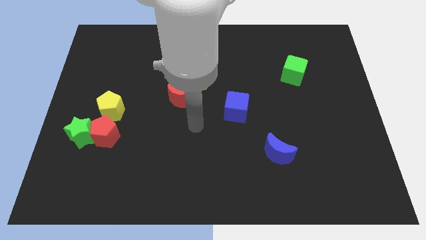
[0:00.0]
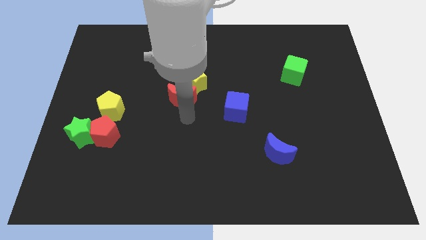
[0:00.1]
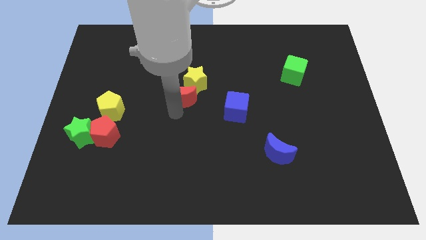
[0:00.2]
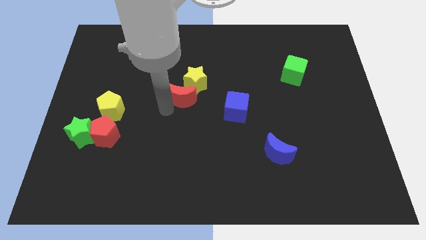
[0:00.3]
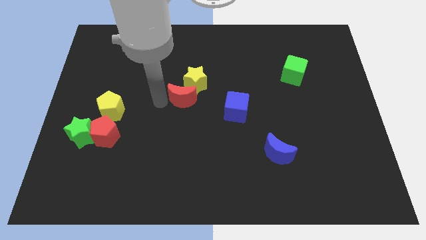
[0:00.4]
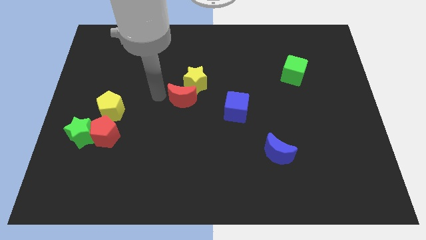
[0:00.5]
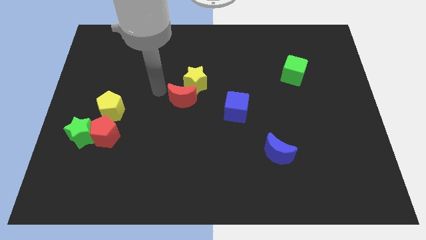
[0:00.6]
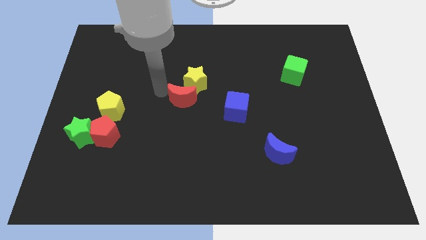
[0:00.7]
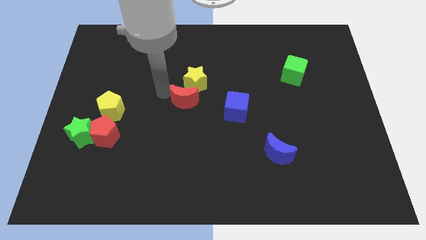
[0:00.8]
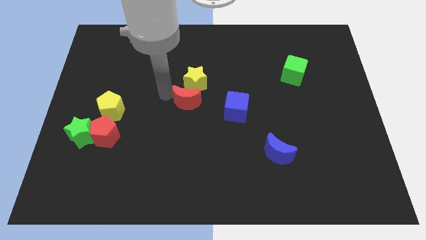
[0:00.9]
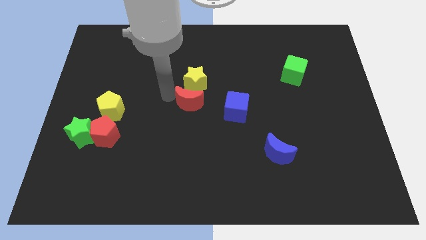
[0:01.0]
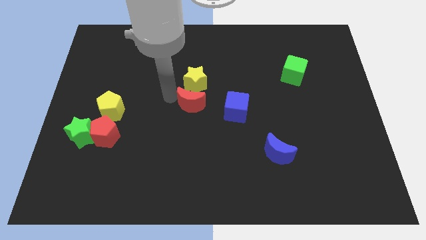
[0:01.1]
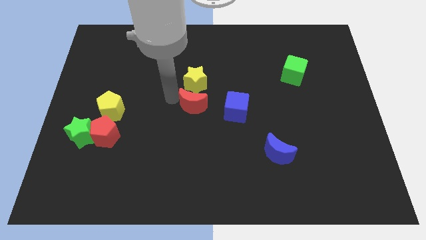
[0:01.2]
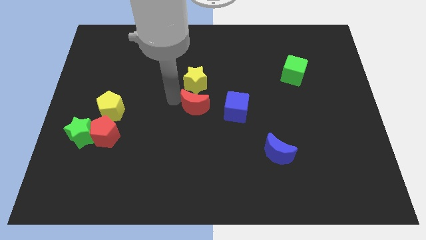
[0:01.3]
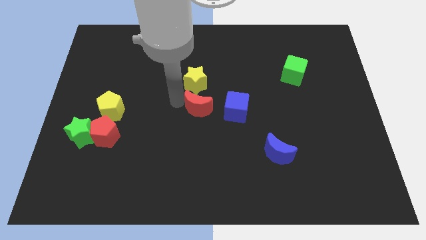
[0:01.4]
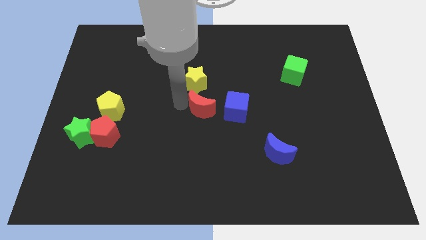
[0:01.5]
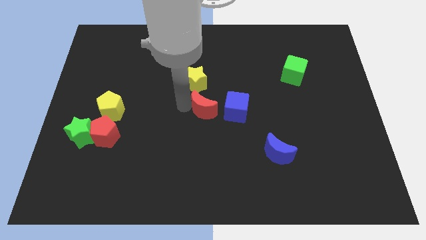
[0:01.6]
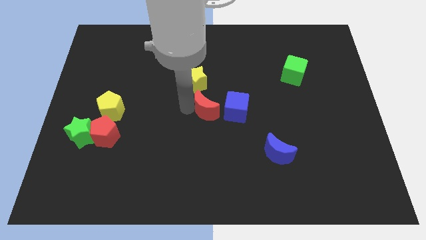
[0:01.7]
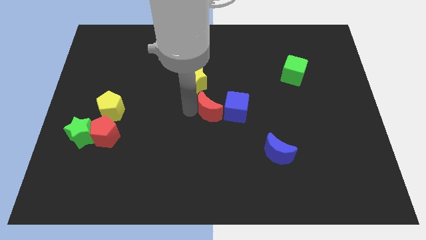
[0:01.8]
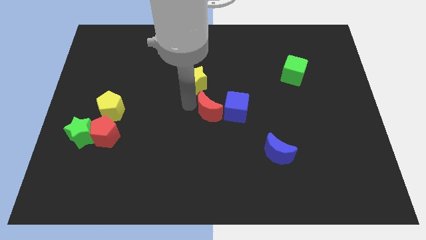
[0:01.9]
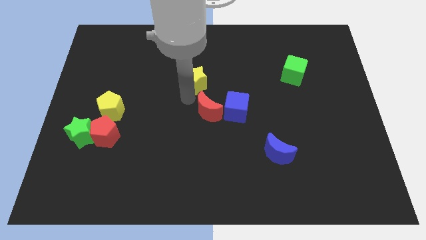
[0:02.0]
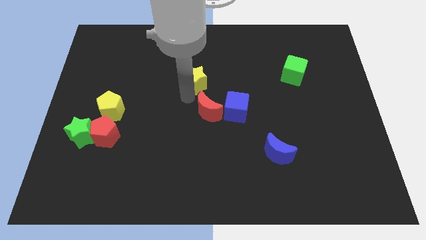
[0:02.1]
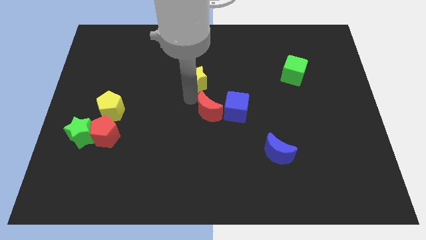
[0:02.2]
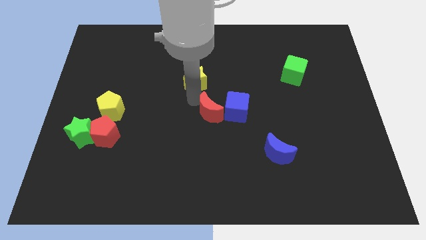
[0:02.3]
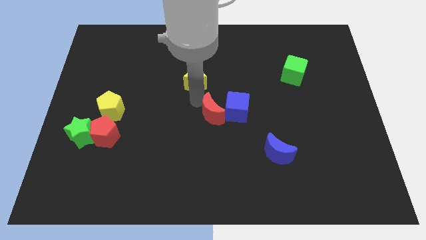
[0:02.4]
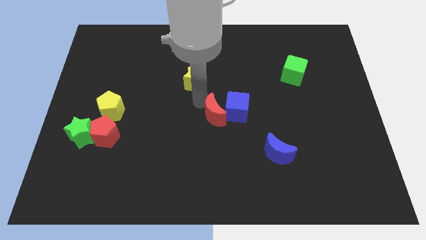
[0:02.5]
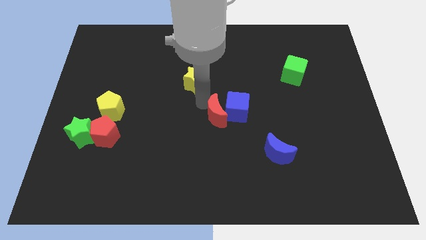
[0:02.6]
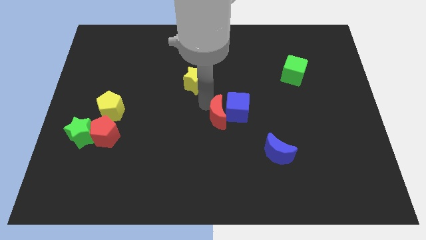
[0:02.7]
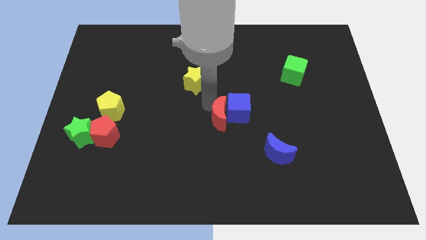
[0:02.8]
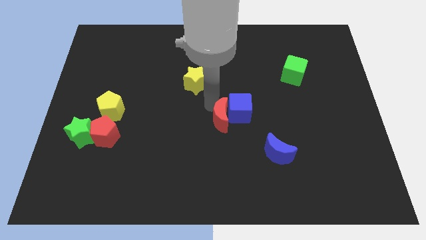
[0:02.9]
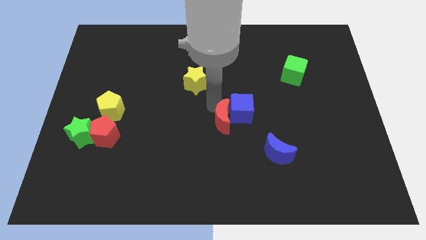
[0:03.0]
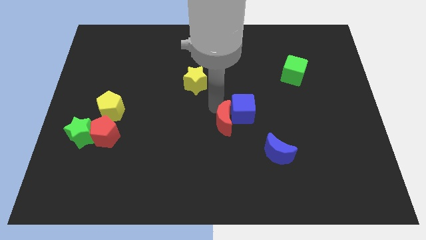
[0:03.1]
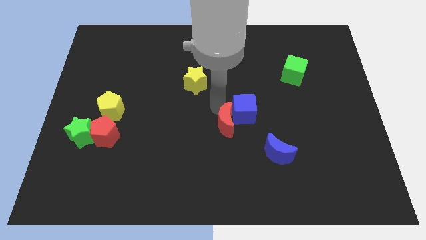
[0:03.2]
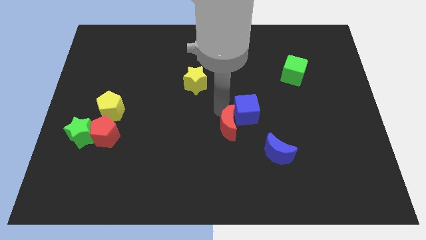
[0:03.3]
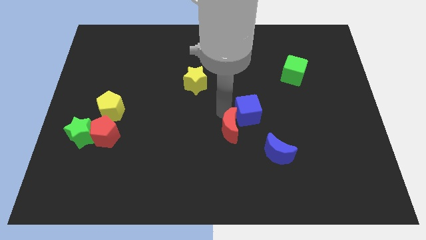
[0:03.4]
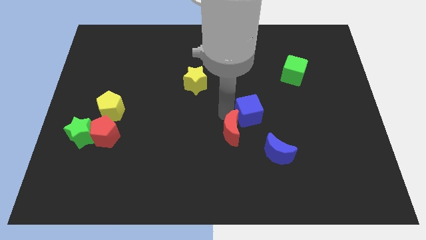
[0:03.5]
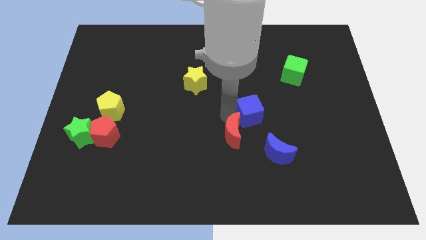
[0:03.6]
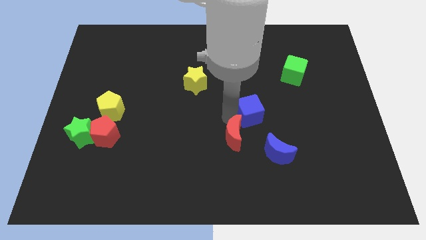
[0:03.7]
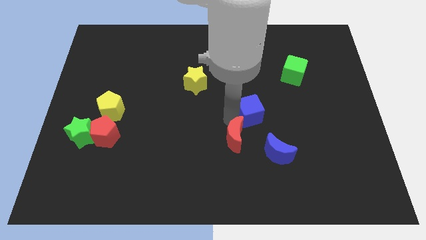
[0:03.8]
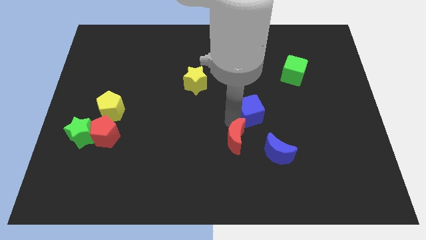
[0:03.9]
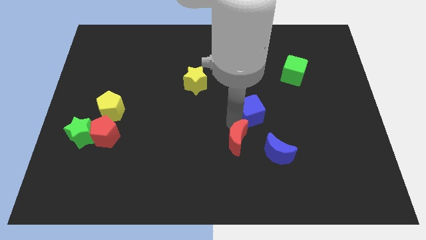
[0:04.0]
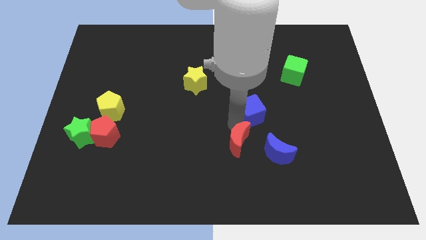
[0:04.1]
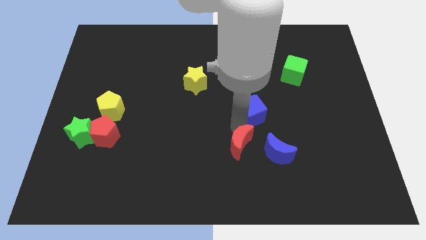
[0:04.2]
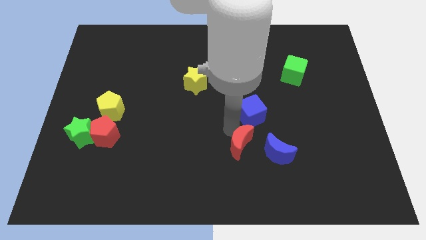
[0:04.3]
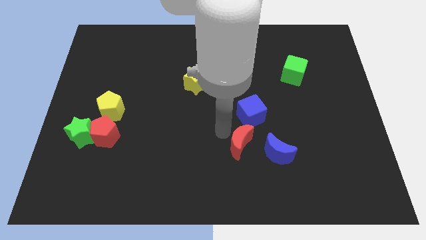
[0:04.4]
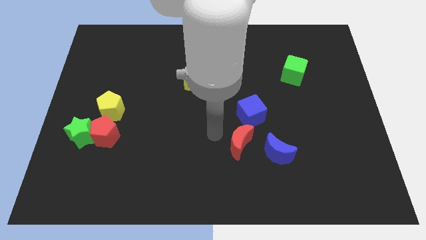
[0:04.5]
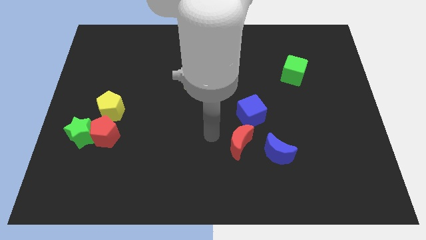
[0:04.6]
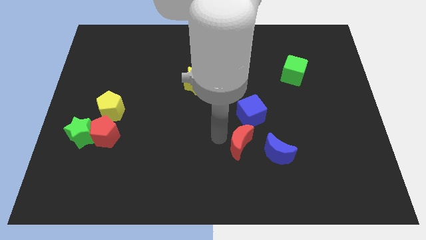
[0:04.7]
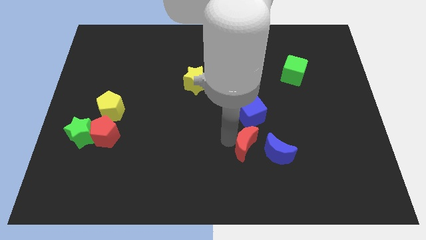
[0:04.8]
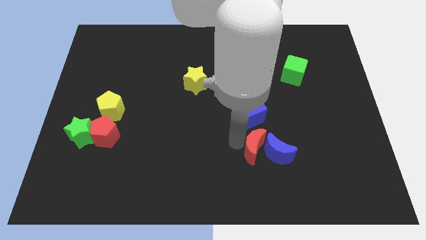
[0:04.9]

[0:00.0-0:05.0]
move the red moon next to the blue moon

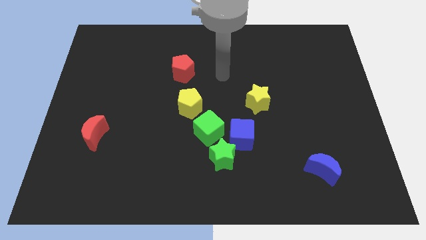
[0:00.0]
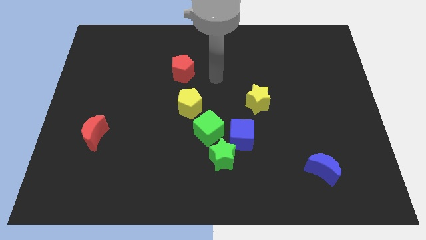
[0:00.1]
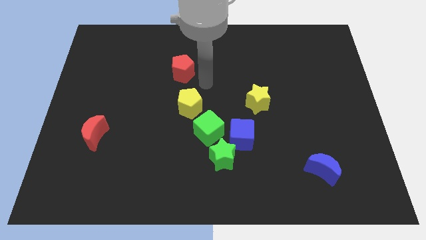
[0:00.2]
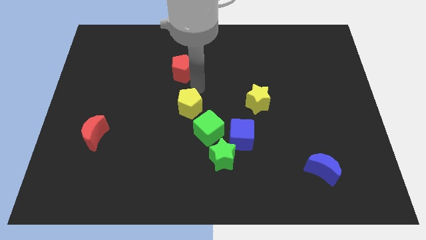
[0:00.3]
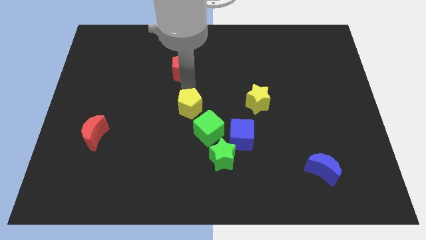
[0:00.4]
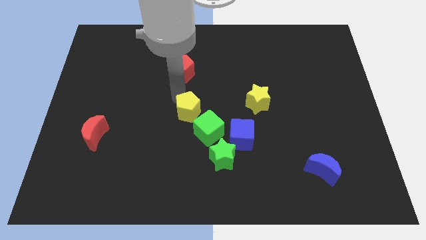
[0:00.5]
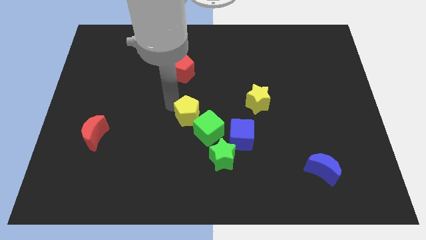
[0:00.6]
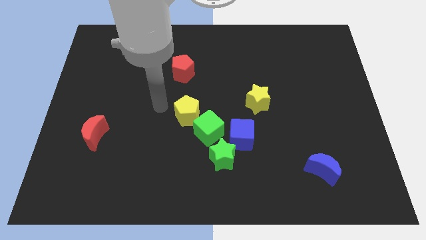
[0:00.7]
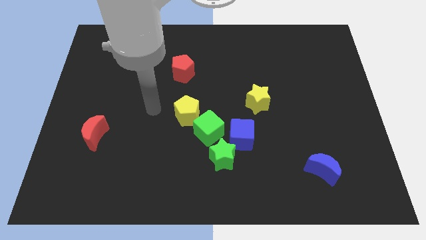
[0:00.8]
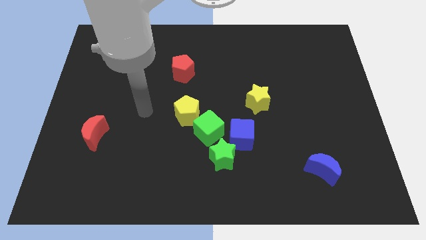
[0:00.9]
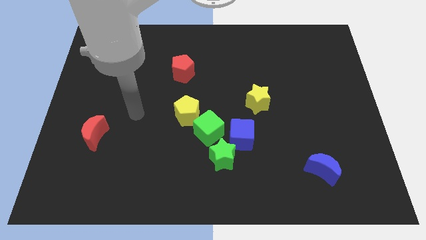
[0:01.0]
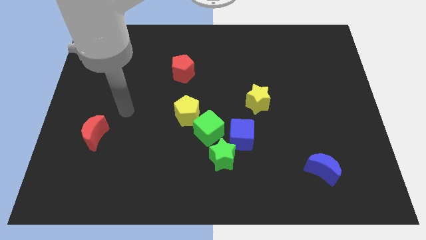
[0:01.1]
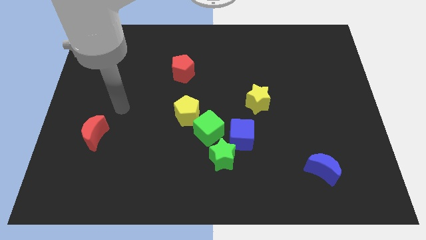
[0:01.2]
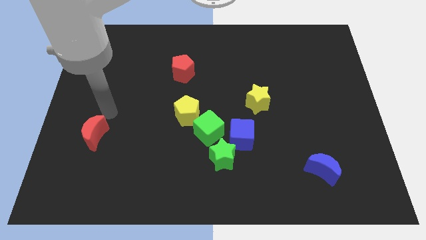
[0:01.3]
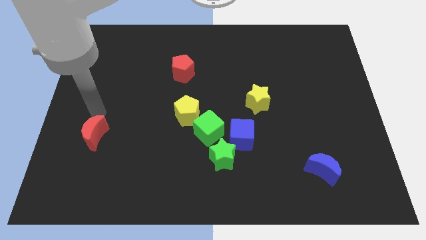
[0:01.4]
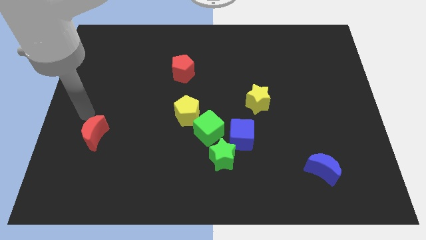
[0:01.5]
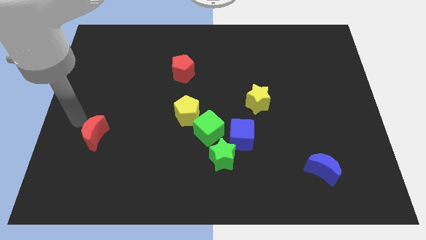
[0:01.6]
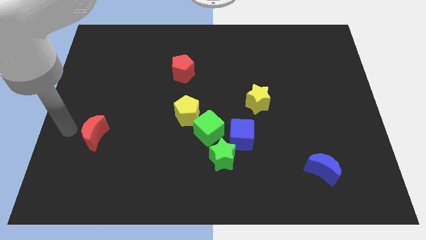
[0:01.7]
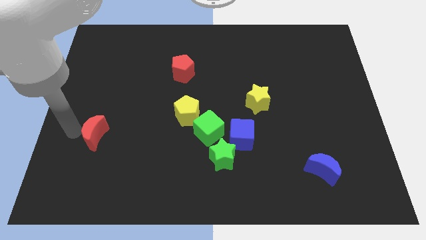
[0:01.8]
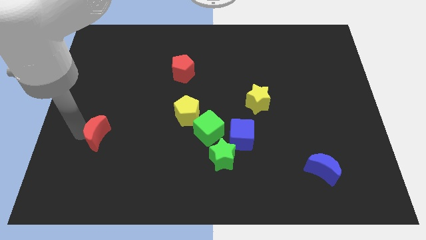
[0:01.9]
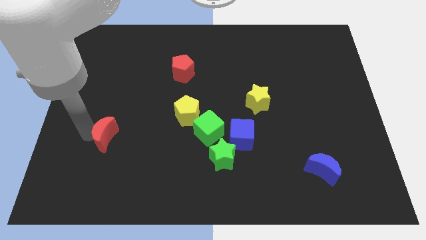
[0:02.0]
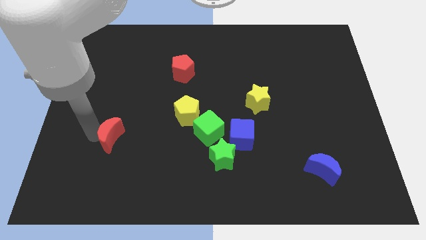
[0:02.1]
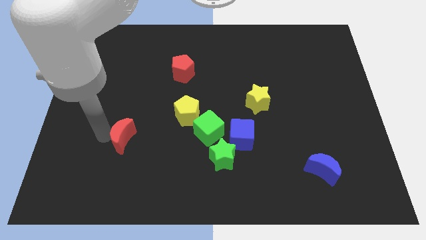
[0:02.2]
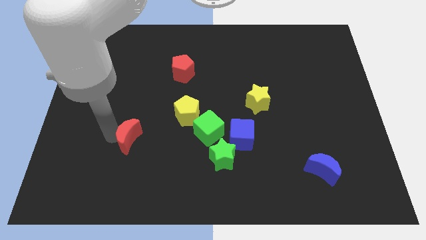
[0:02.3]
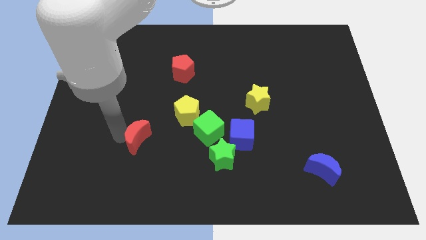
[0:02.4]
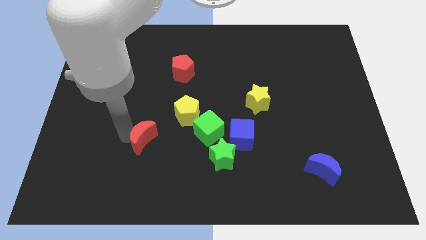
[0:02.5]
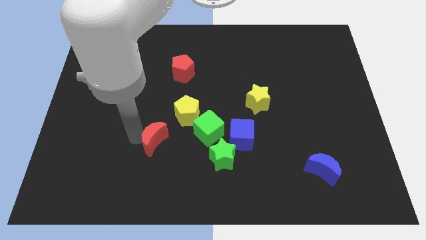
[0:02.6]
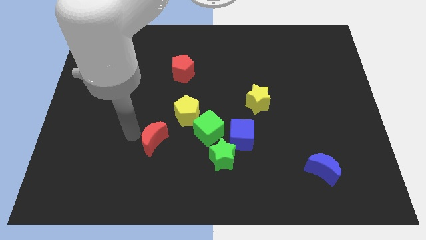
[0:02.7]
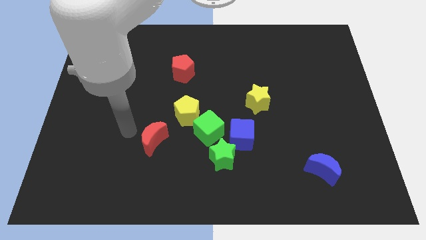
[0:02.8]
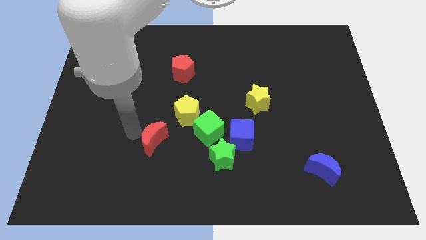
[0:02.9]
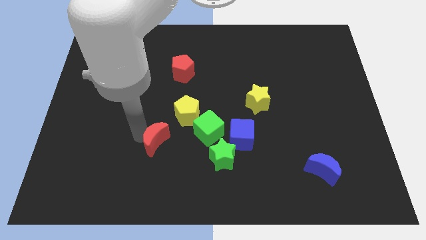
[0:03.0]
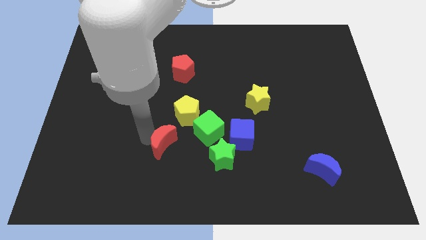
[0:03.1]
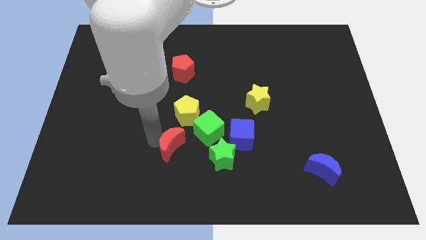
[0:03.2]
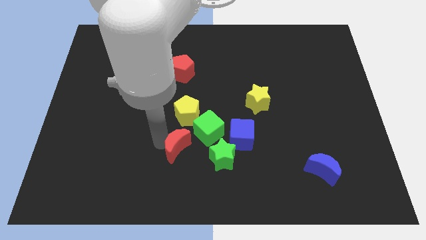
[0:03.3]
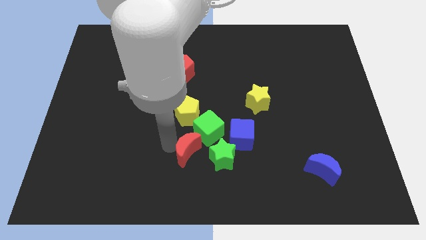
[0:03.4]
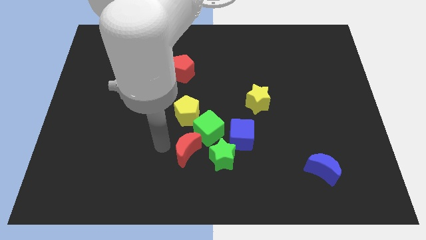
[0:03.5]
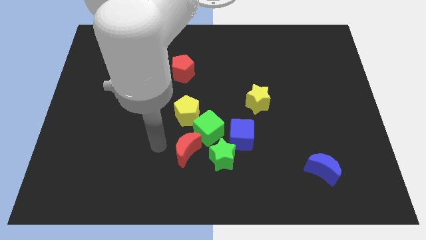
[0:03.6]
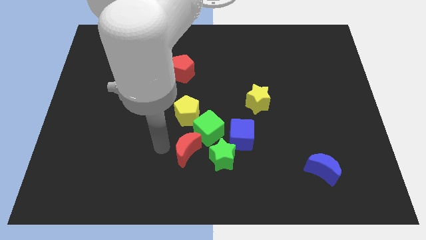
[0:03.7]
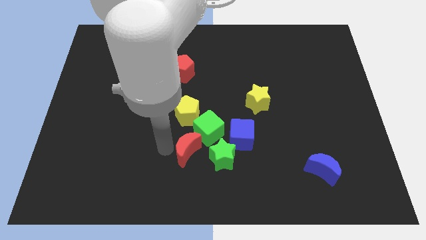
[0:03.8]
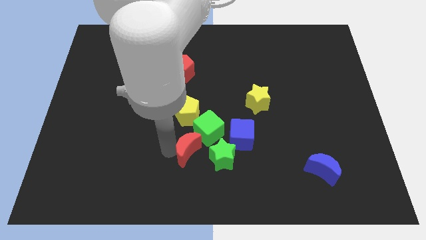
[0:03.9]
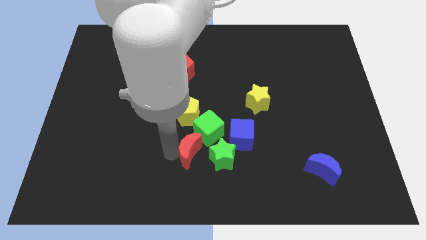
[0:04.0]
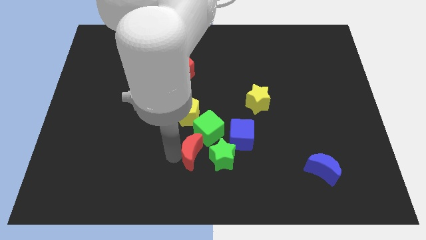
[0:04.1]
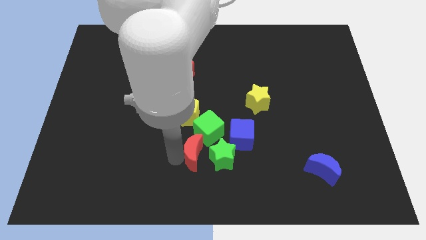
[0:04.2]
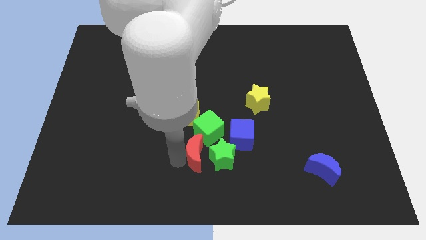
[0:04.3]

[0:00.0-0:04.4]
slide the red moon next to the green star
